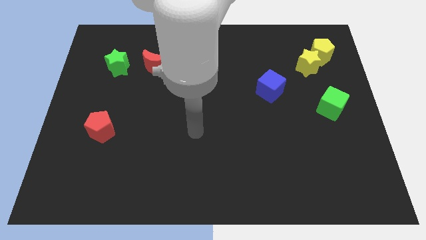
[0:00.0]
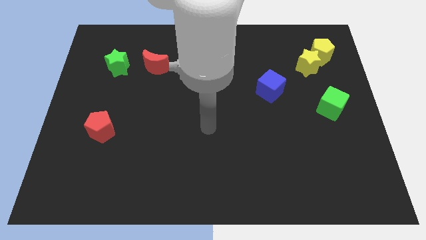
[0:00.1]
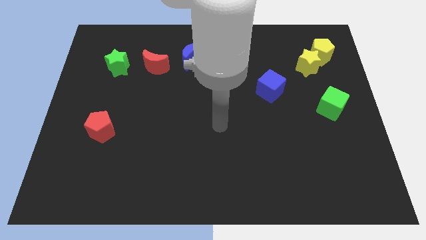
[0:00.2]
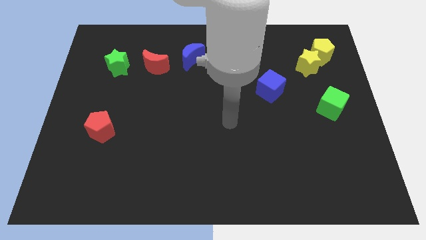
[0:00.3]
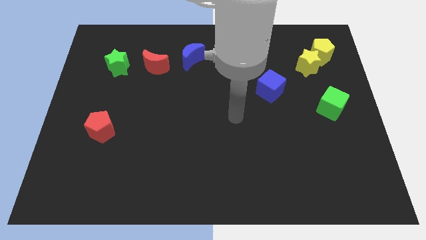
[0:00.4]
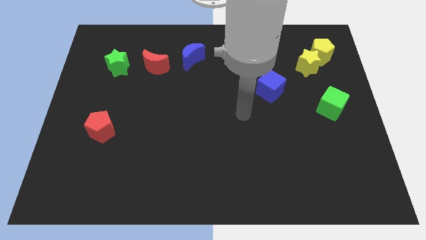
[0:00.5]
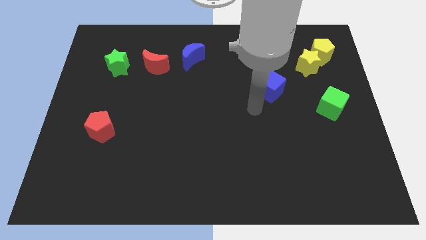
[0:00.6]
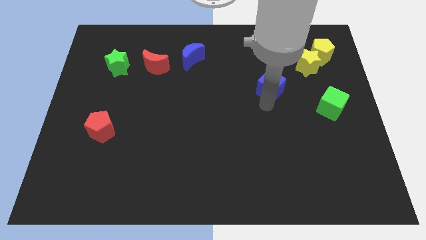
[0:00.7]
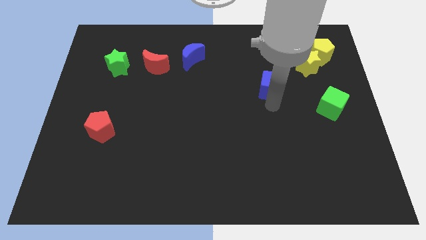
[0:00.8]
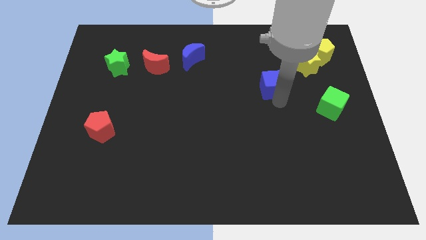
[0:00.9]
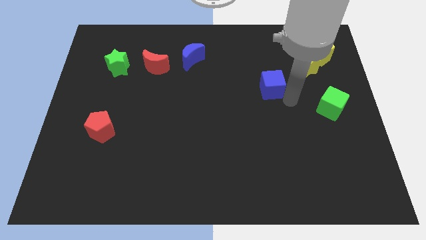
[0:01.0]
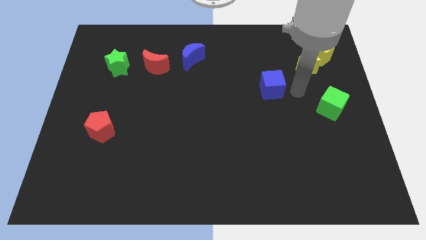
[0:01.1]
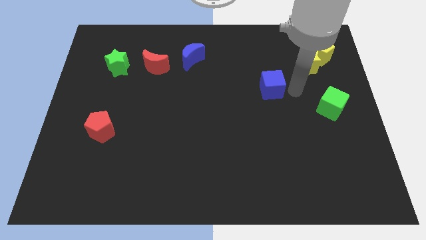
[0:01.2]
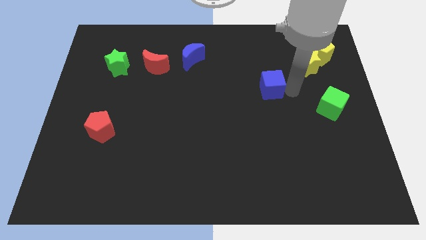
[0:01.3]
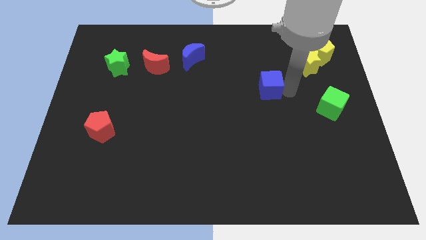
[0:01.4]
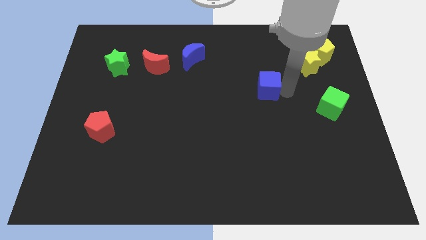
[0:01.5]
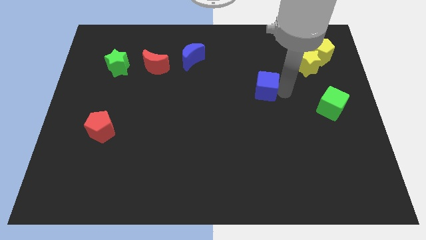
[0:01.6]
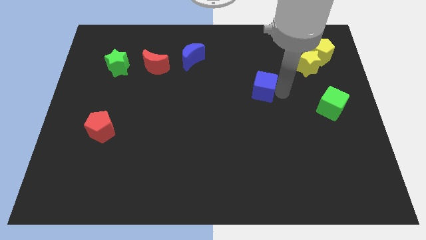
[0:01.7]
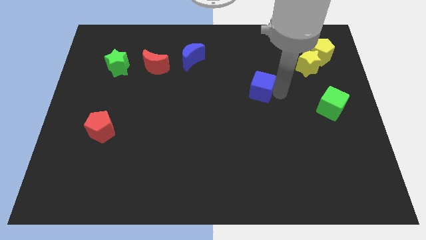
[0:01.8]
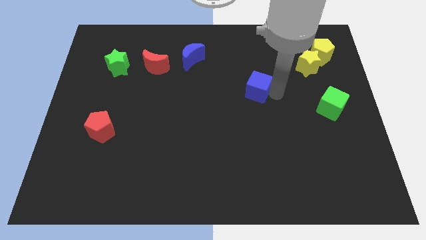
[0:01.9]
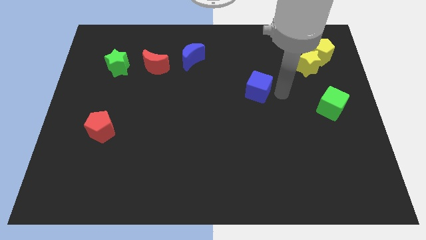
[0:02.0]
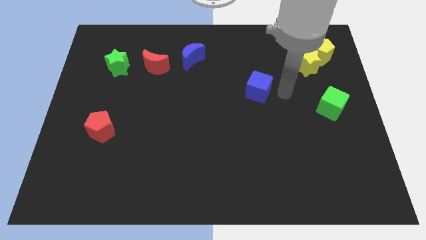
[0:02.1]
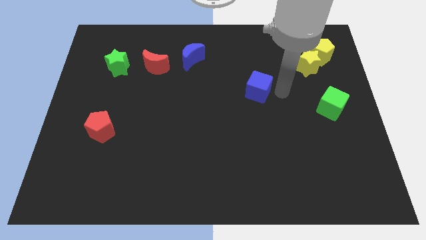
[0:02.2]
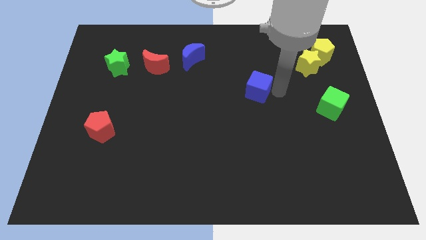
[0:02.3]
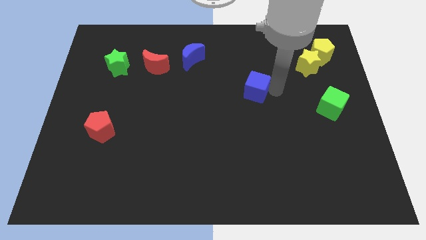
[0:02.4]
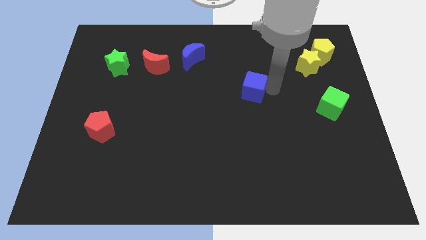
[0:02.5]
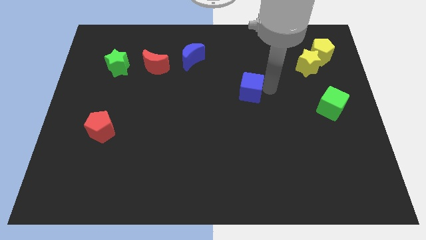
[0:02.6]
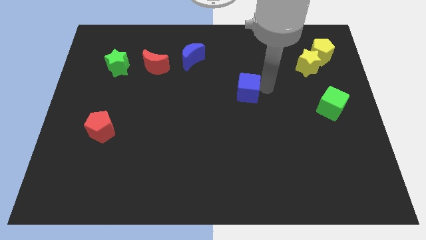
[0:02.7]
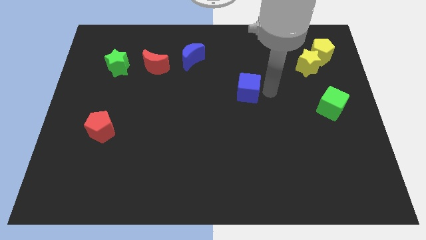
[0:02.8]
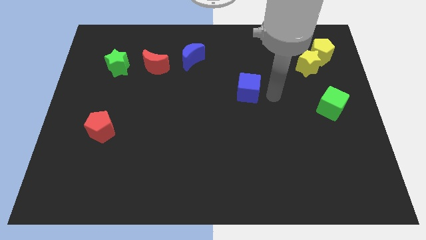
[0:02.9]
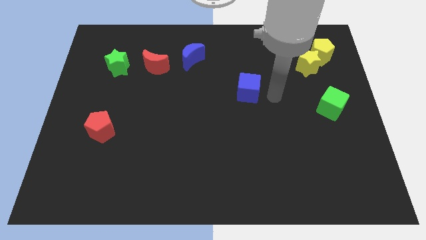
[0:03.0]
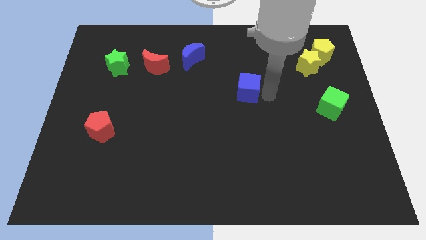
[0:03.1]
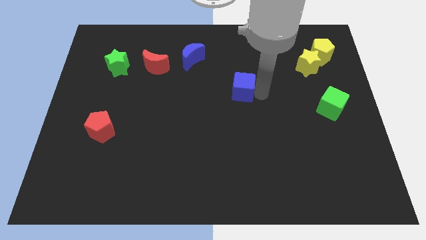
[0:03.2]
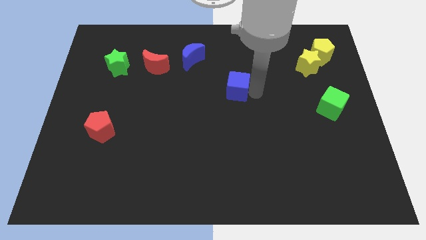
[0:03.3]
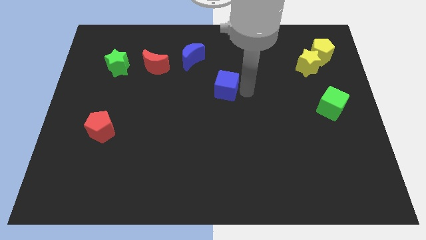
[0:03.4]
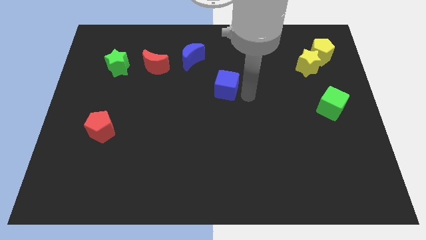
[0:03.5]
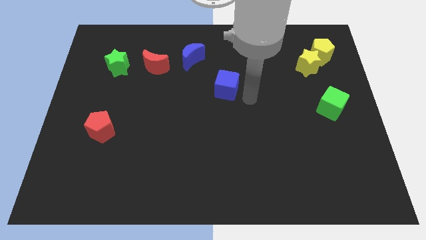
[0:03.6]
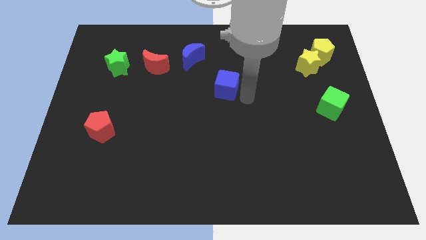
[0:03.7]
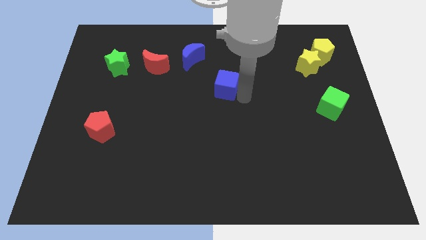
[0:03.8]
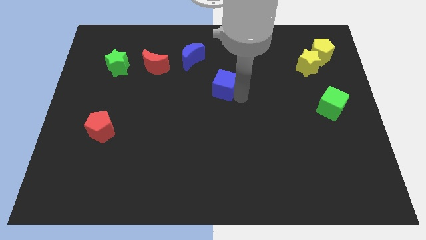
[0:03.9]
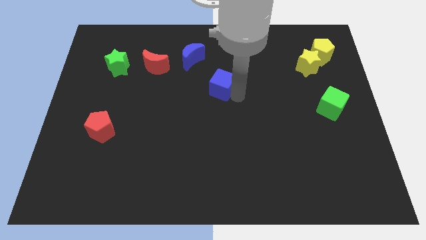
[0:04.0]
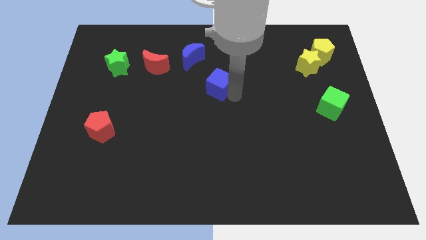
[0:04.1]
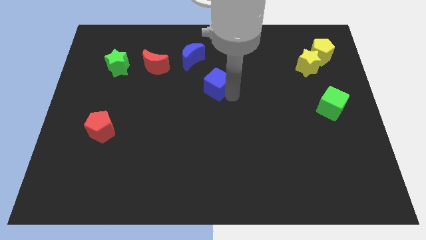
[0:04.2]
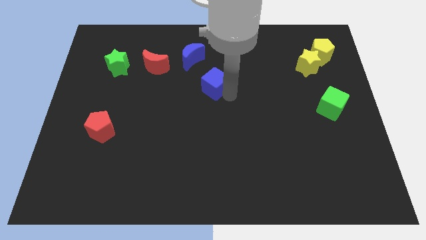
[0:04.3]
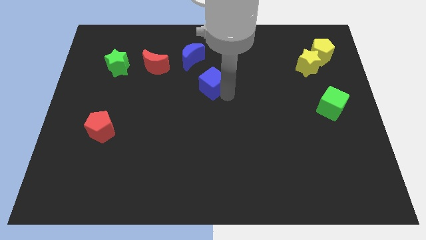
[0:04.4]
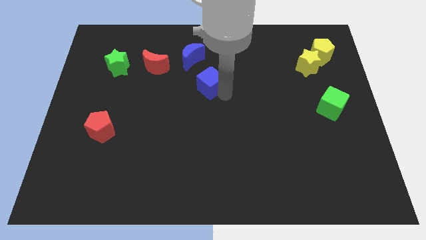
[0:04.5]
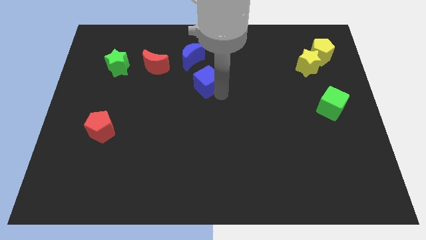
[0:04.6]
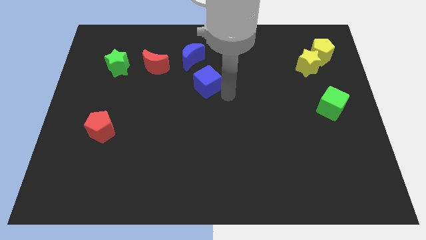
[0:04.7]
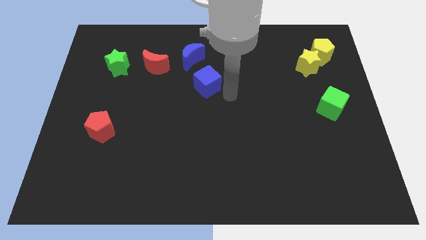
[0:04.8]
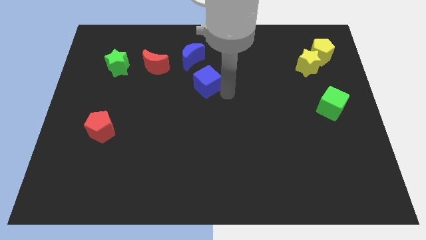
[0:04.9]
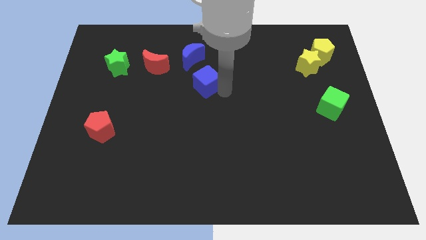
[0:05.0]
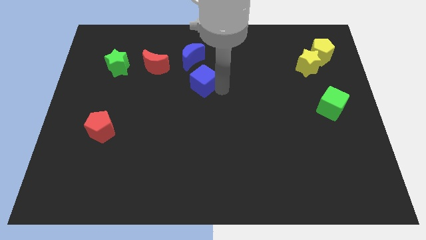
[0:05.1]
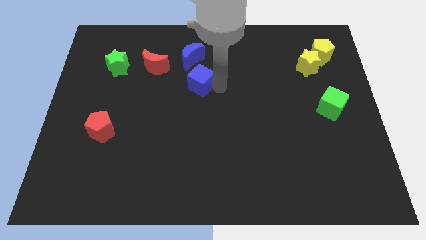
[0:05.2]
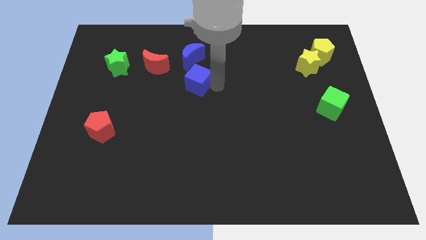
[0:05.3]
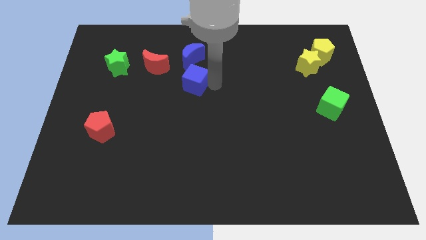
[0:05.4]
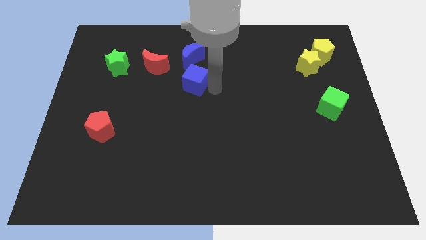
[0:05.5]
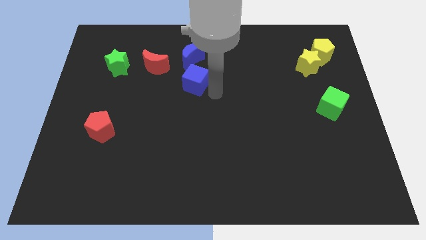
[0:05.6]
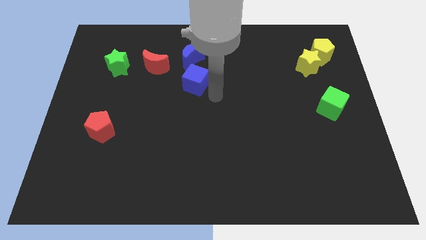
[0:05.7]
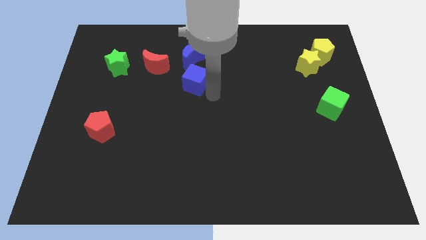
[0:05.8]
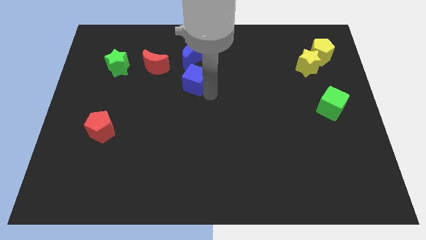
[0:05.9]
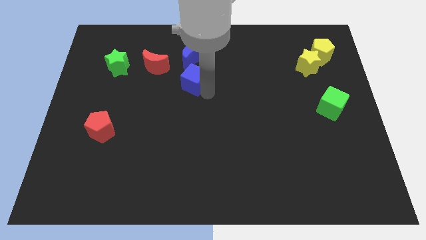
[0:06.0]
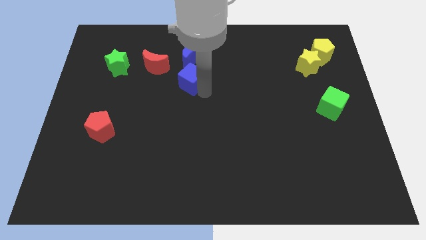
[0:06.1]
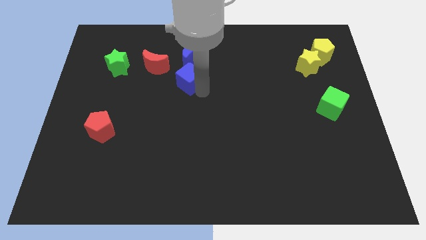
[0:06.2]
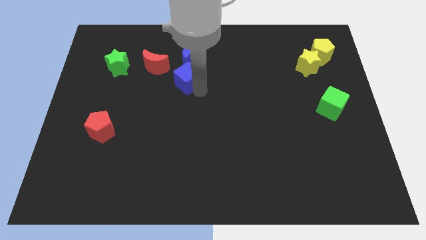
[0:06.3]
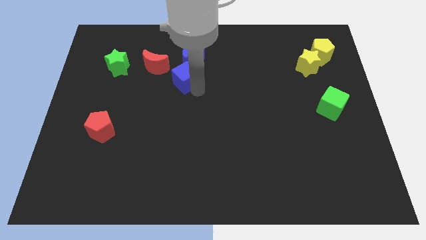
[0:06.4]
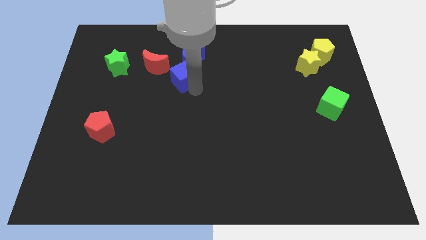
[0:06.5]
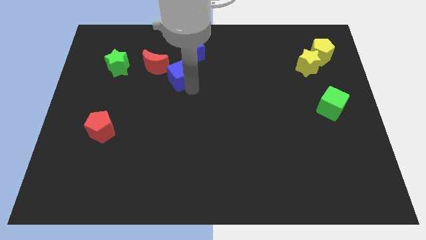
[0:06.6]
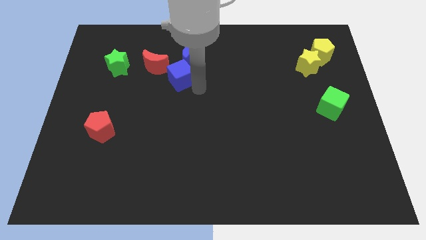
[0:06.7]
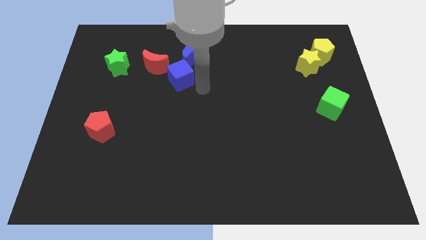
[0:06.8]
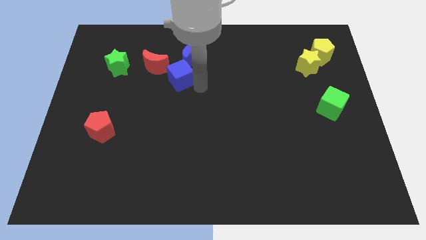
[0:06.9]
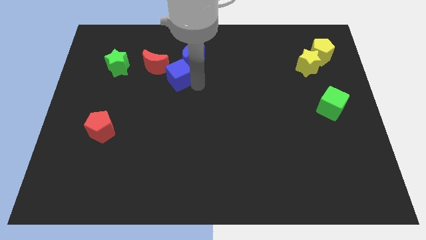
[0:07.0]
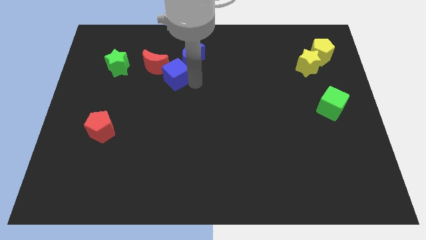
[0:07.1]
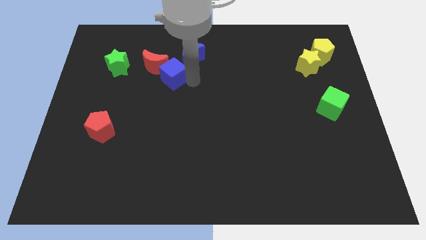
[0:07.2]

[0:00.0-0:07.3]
push the blue cube next to the red moon

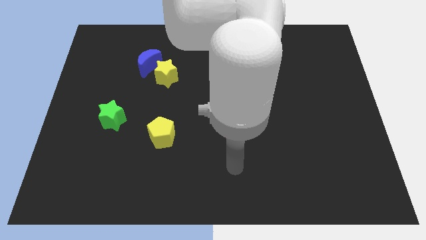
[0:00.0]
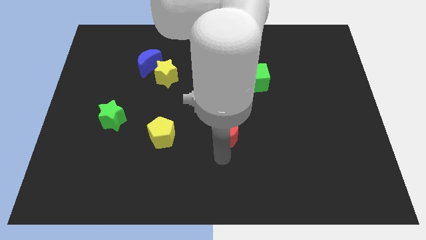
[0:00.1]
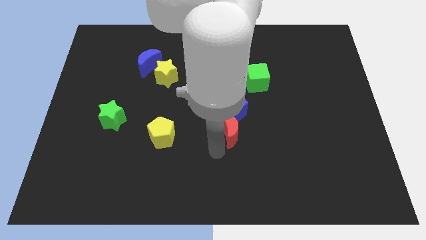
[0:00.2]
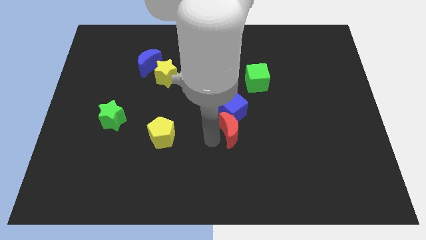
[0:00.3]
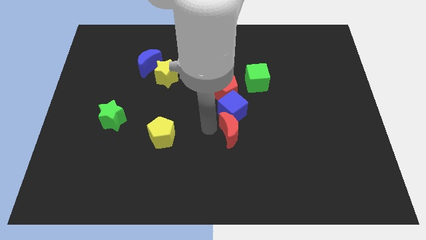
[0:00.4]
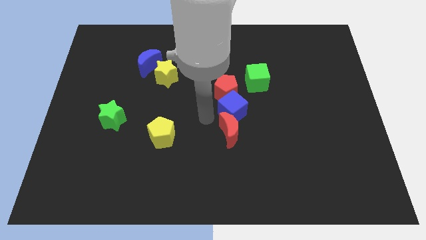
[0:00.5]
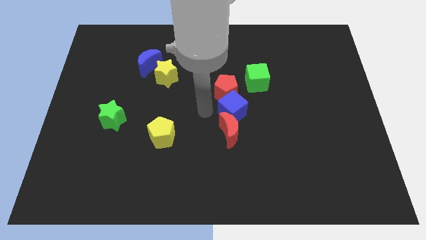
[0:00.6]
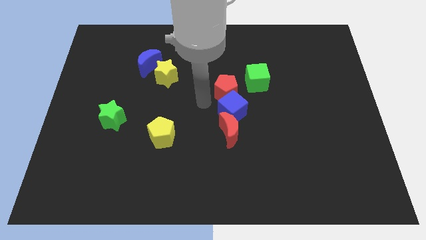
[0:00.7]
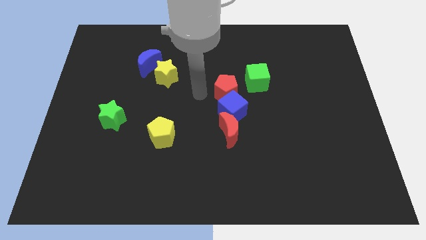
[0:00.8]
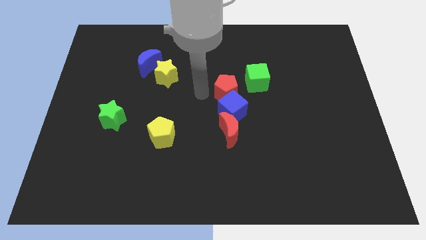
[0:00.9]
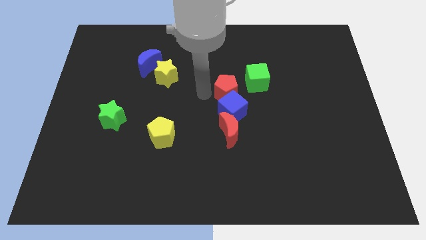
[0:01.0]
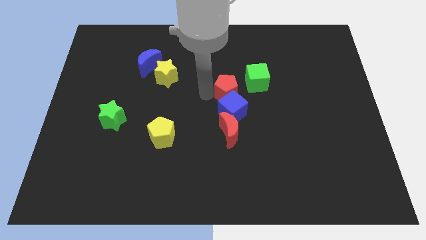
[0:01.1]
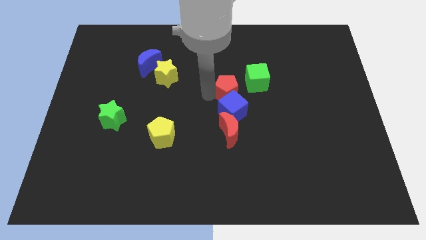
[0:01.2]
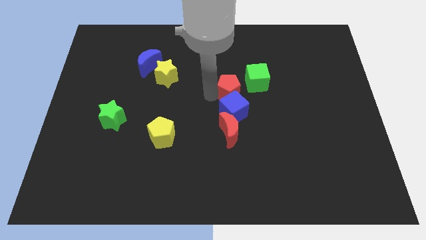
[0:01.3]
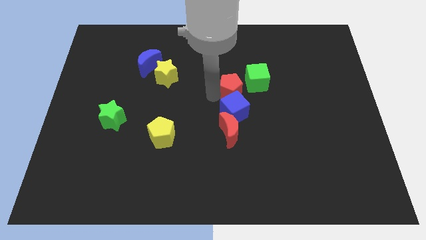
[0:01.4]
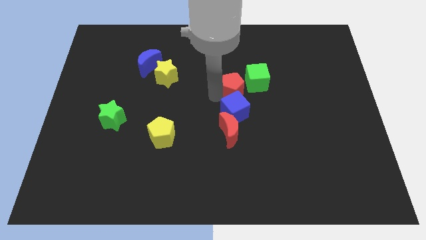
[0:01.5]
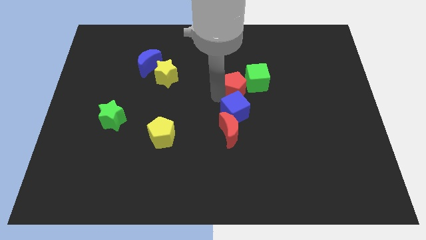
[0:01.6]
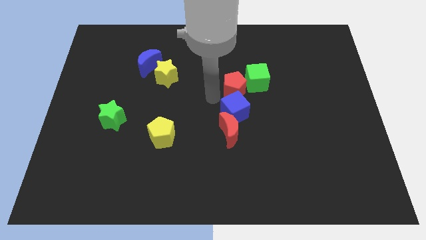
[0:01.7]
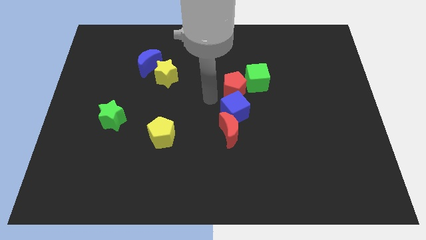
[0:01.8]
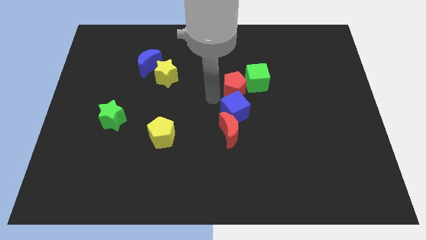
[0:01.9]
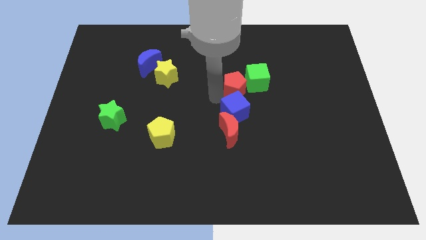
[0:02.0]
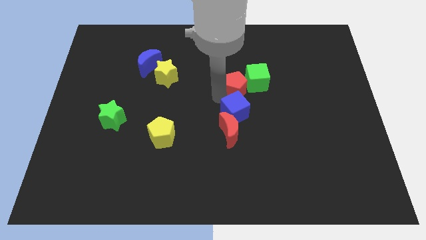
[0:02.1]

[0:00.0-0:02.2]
slide the red pentagon towards the green cube
